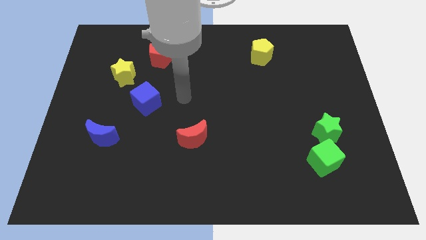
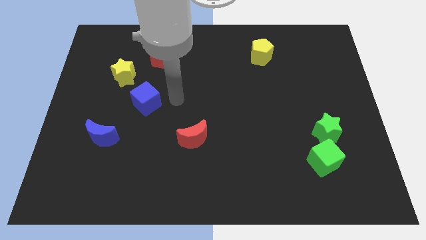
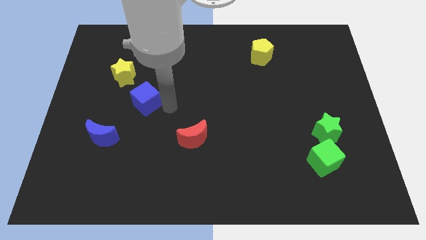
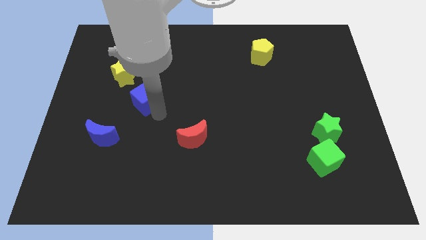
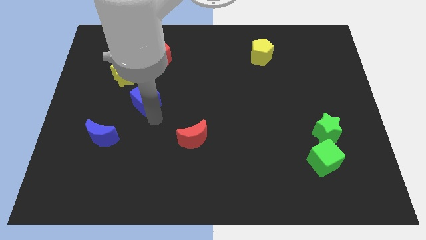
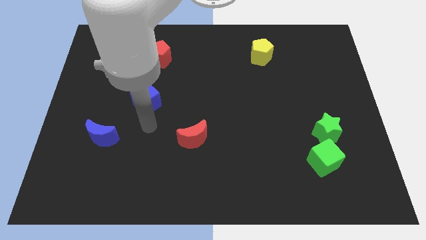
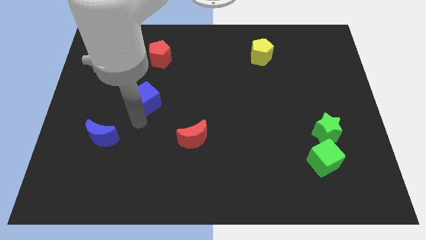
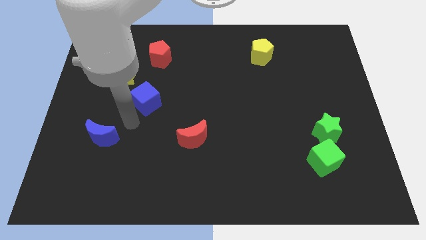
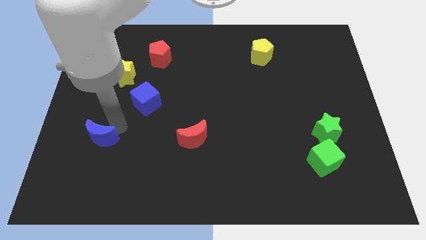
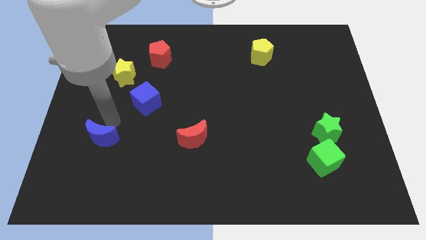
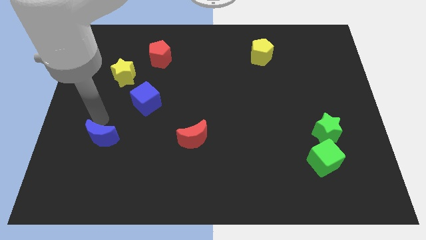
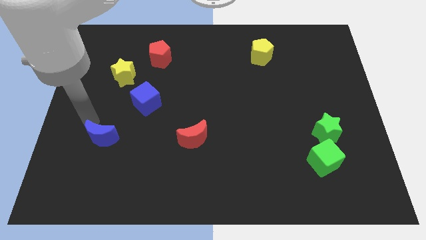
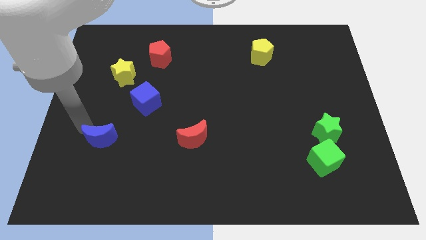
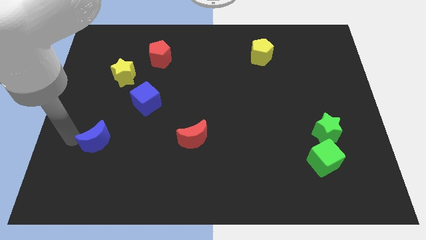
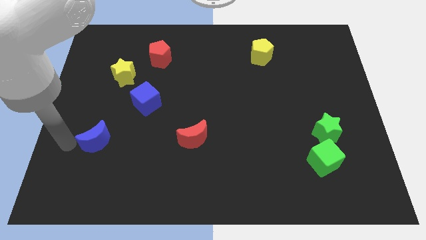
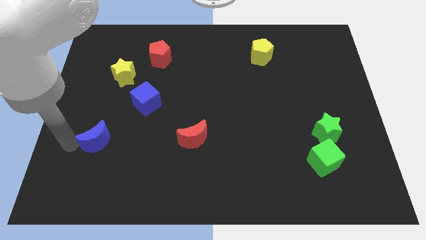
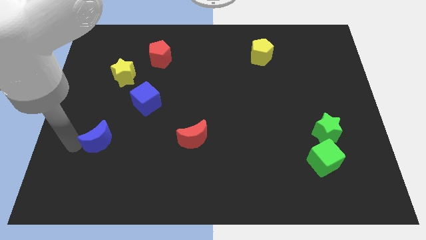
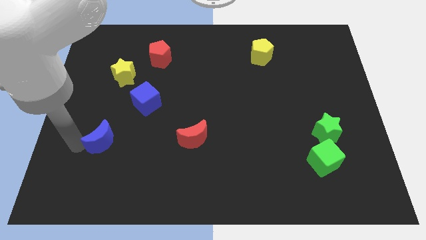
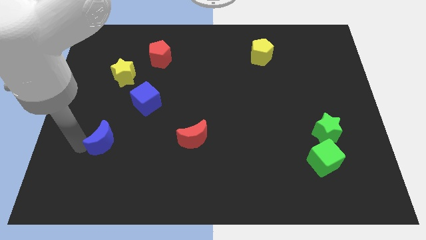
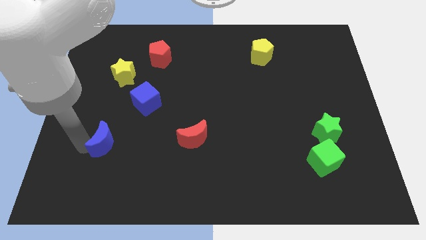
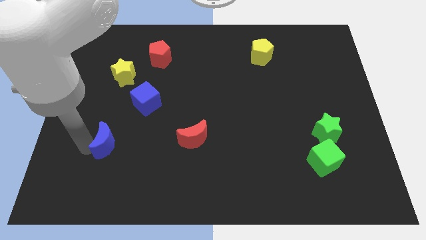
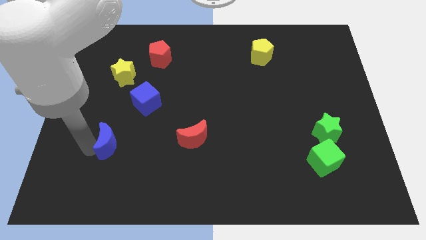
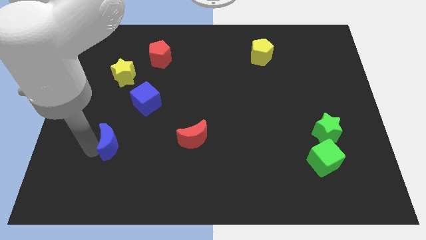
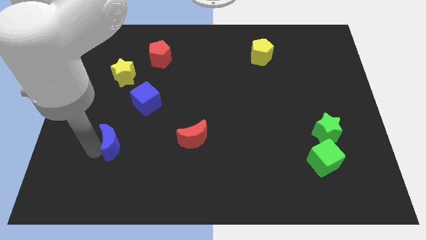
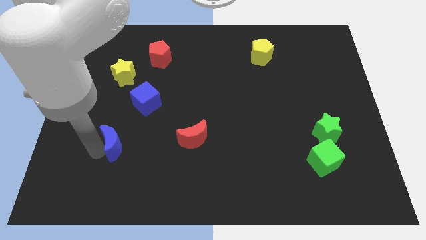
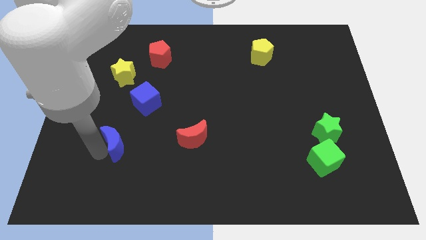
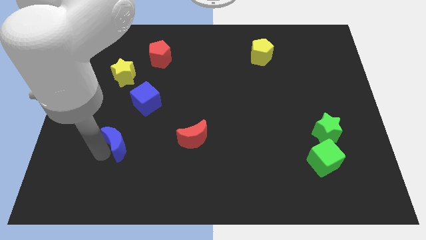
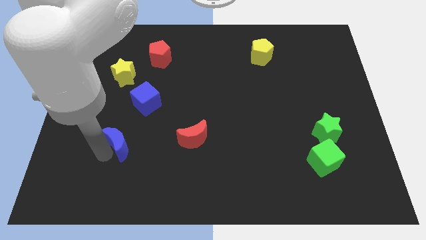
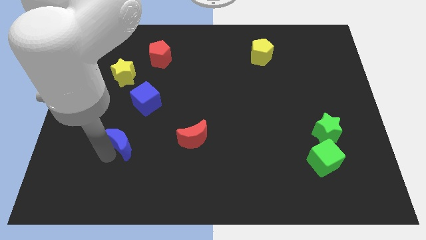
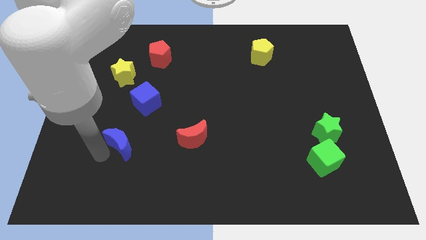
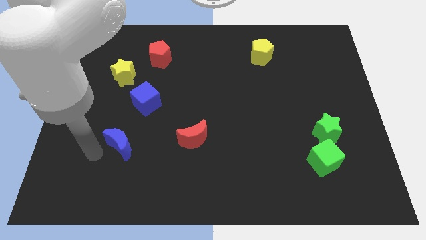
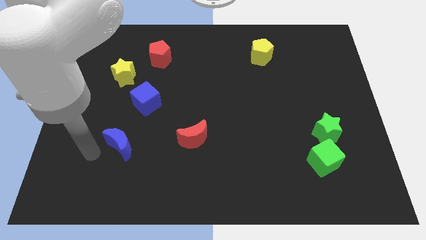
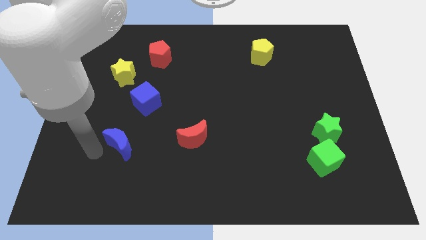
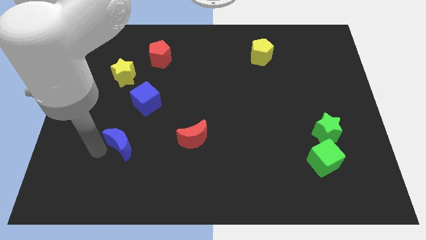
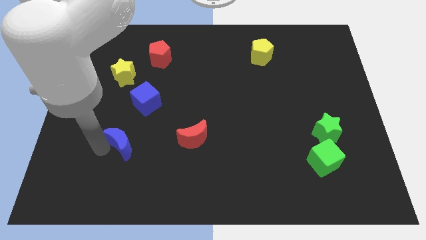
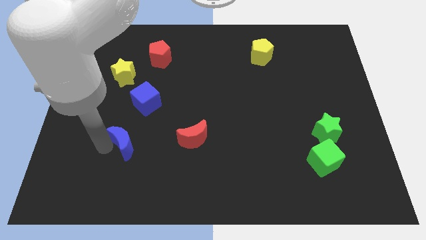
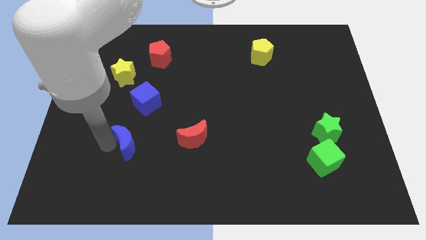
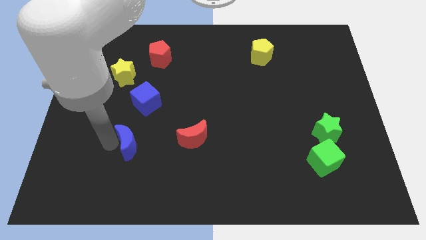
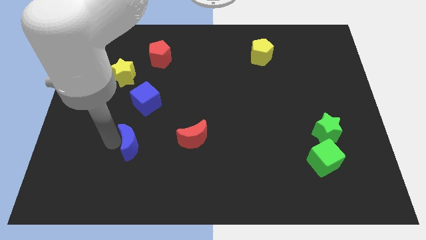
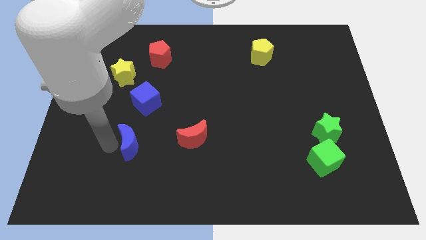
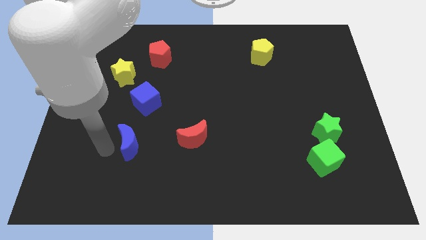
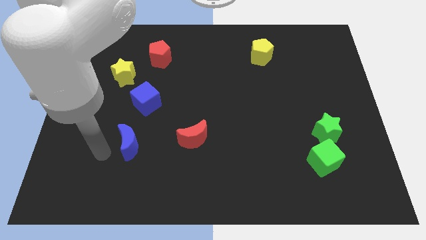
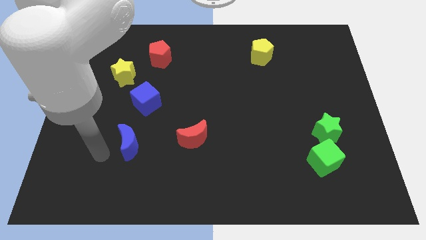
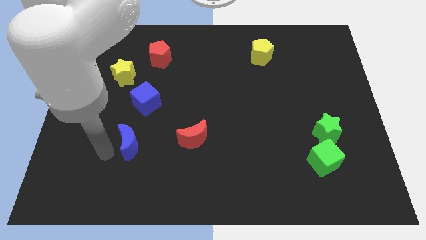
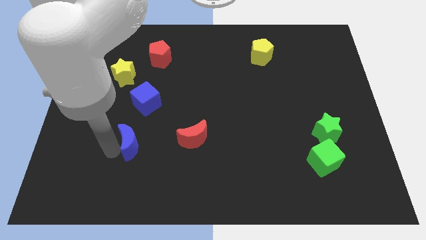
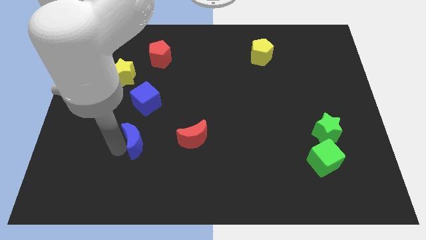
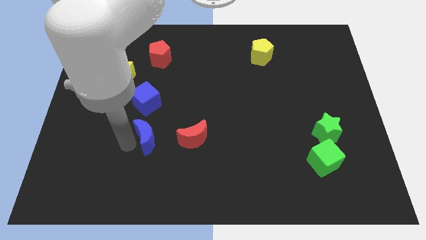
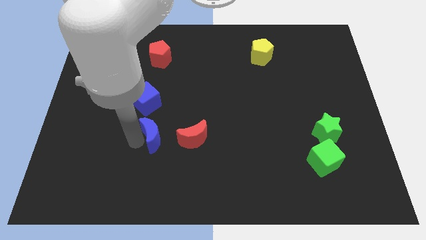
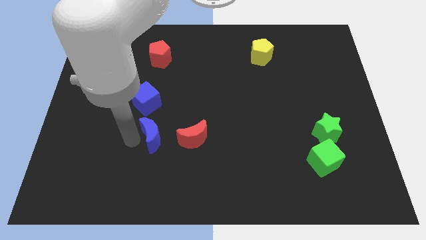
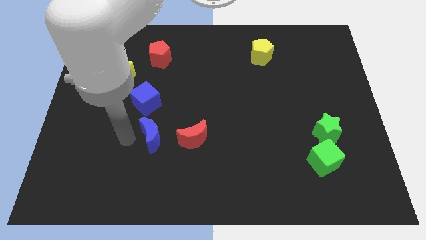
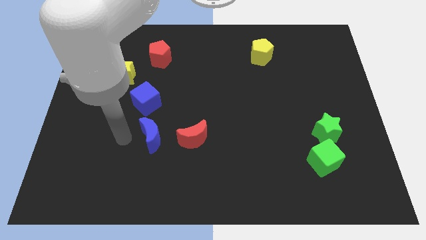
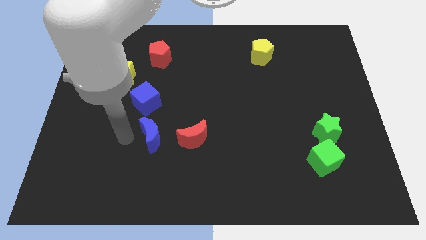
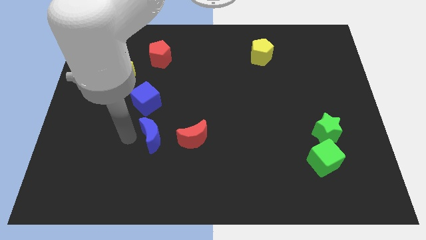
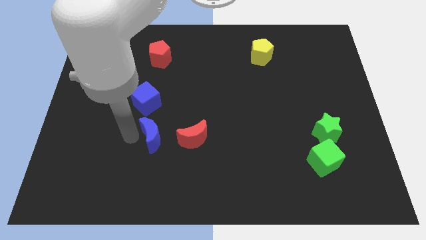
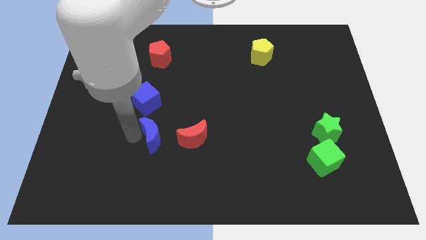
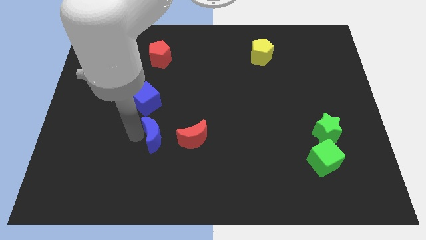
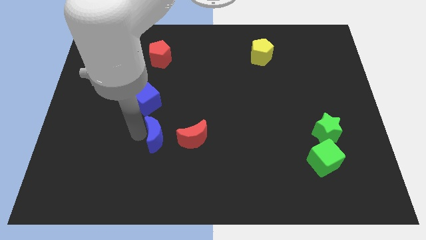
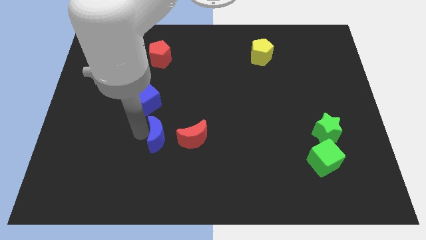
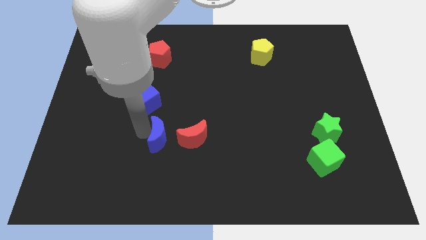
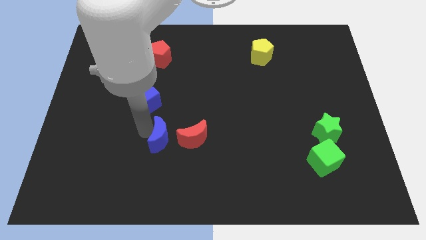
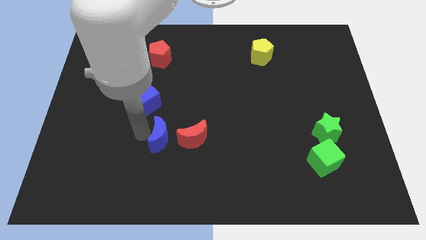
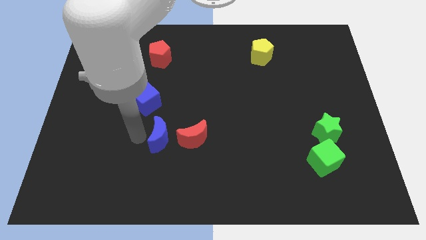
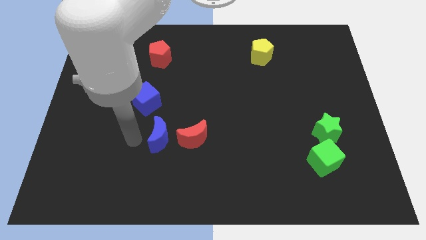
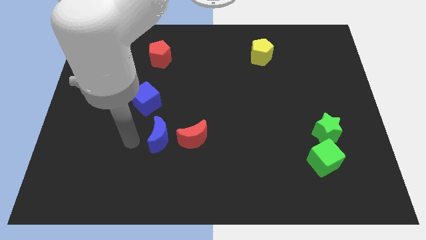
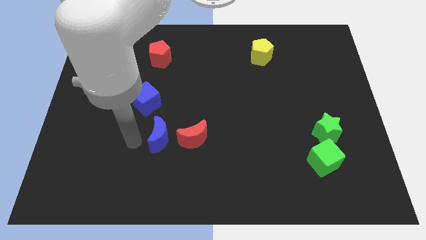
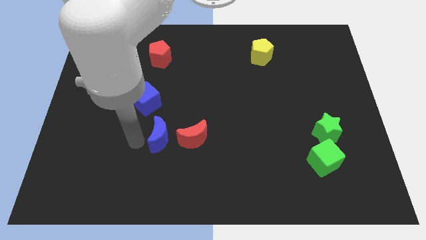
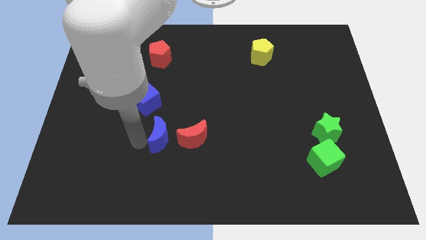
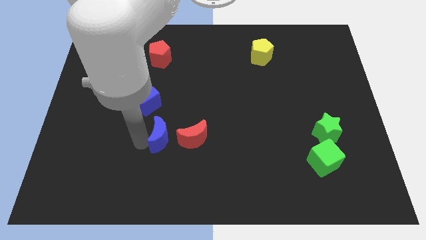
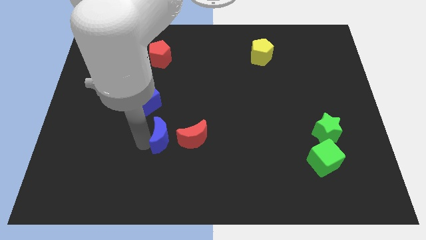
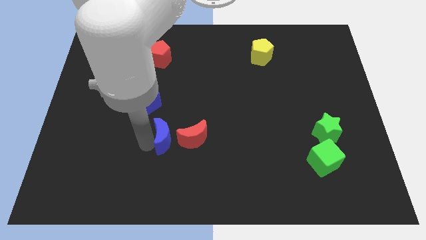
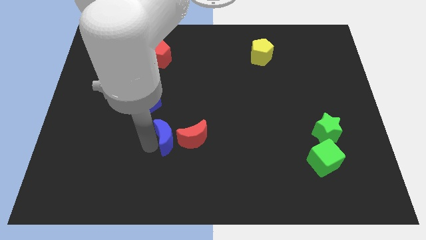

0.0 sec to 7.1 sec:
move the blue moon to the red moon
